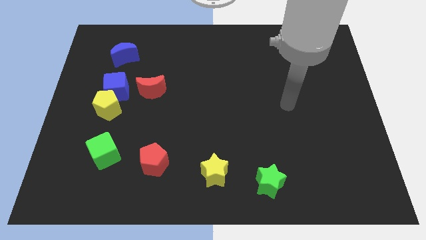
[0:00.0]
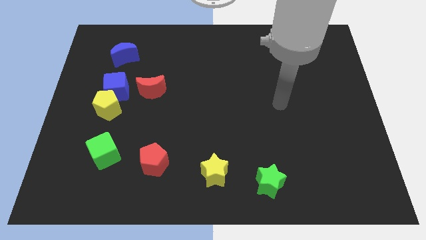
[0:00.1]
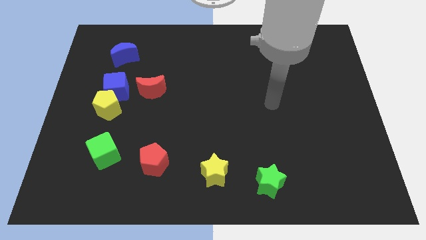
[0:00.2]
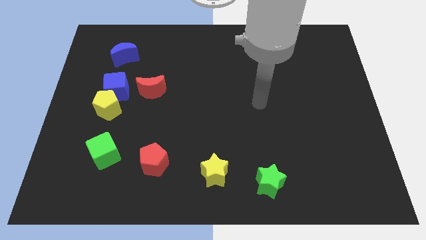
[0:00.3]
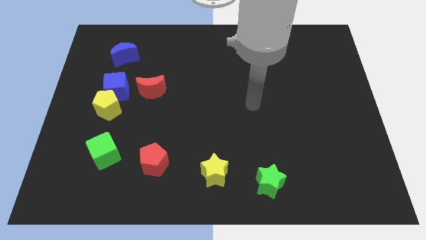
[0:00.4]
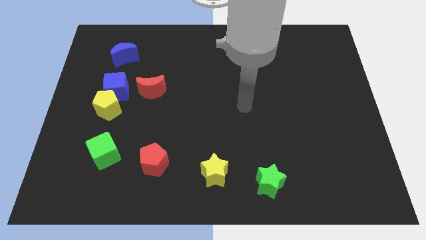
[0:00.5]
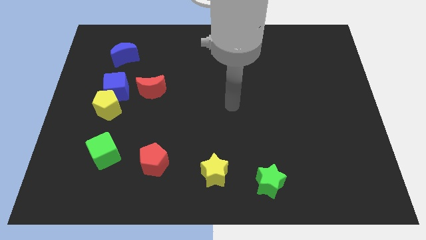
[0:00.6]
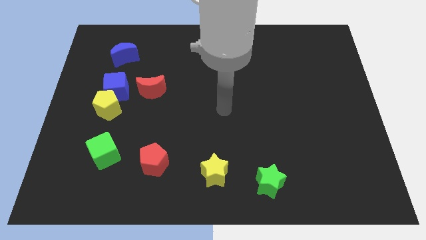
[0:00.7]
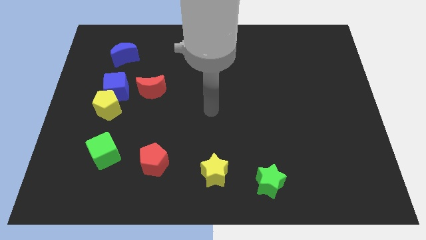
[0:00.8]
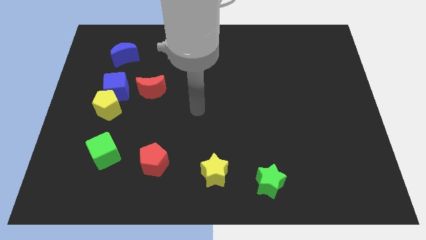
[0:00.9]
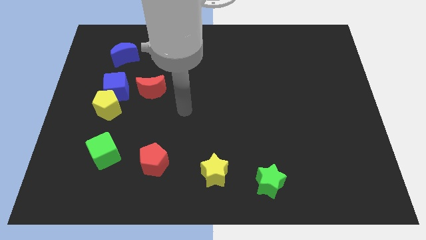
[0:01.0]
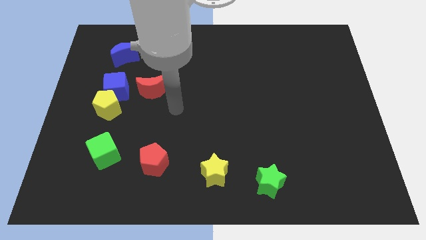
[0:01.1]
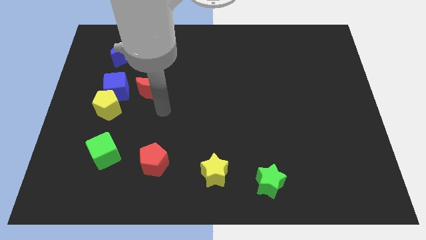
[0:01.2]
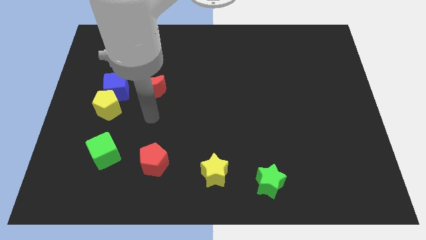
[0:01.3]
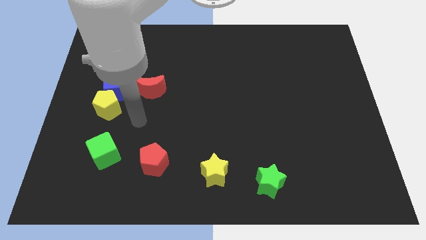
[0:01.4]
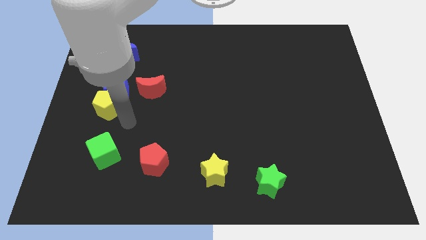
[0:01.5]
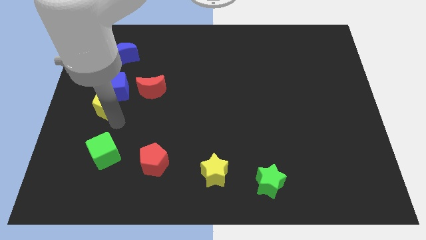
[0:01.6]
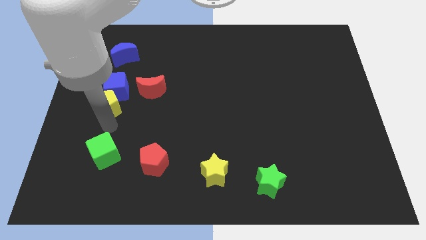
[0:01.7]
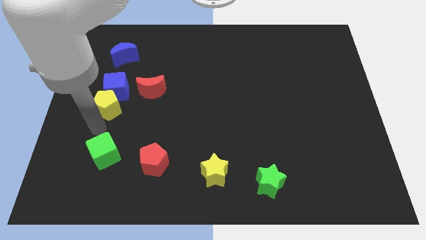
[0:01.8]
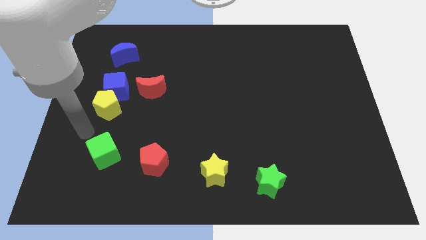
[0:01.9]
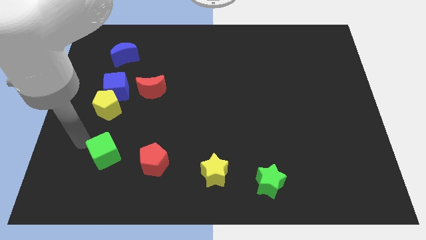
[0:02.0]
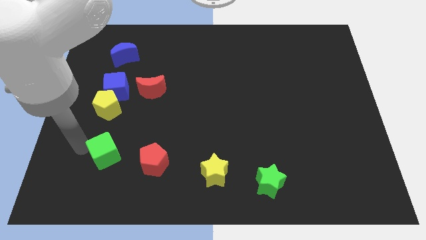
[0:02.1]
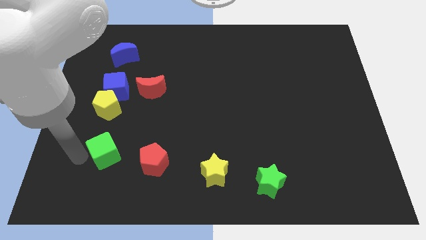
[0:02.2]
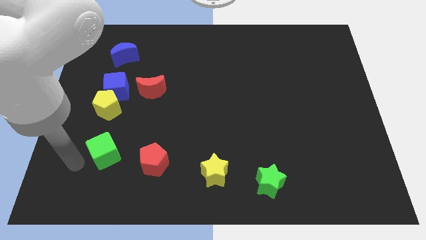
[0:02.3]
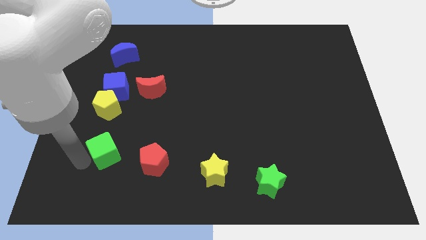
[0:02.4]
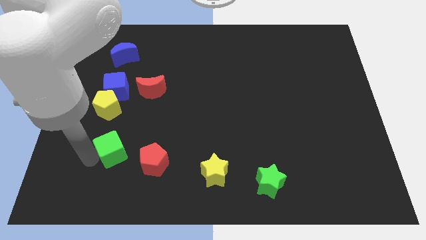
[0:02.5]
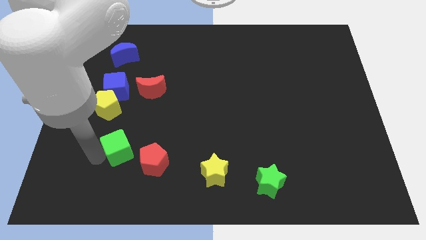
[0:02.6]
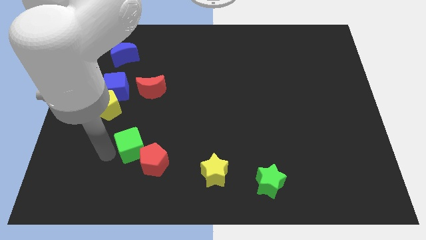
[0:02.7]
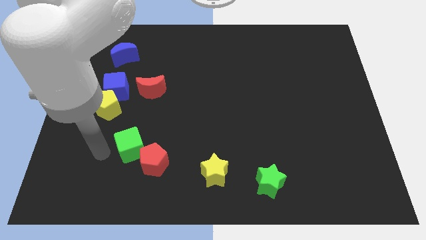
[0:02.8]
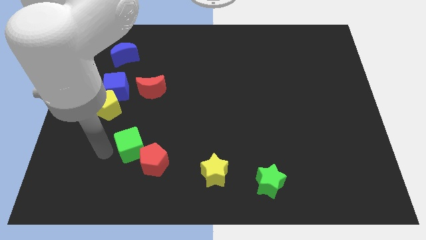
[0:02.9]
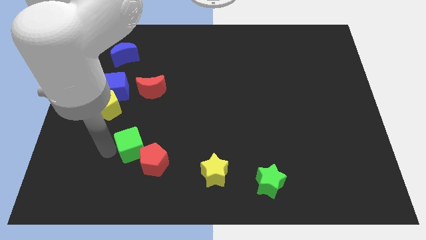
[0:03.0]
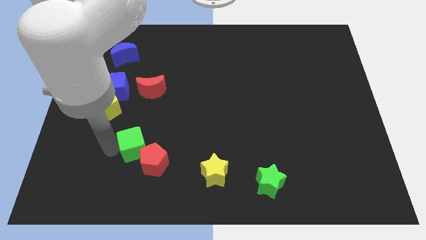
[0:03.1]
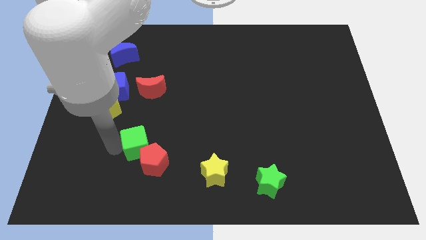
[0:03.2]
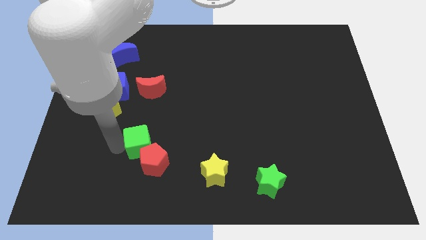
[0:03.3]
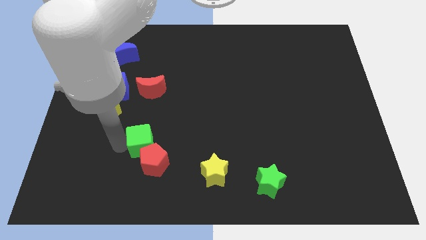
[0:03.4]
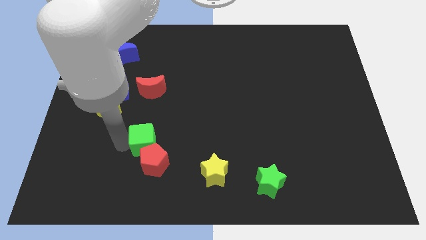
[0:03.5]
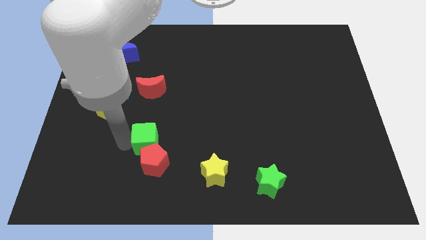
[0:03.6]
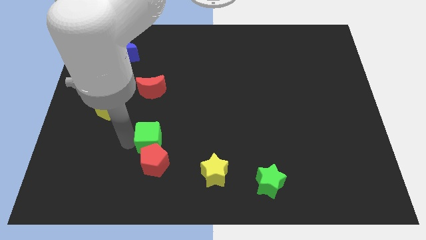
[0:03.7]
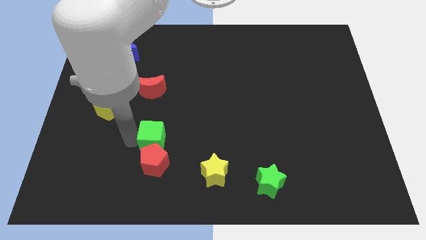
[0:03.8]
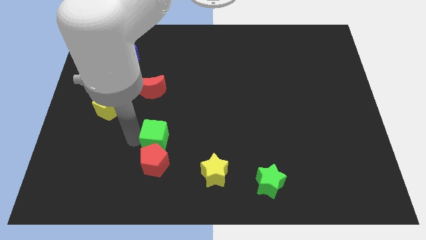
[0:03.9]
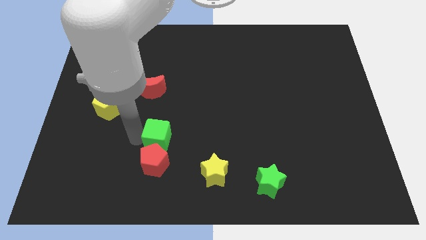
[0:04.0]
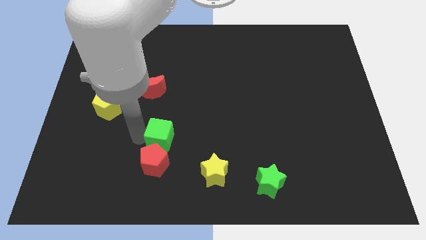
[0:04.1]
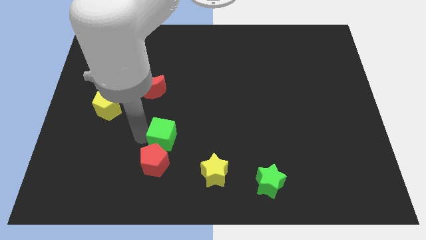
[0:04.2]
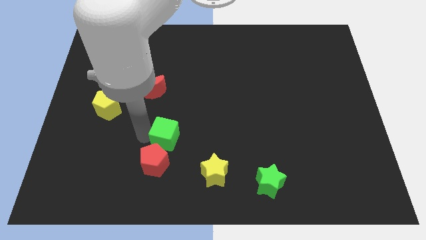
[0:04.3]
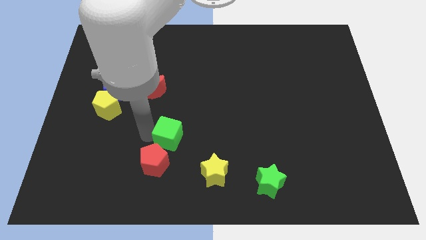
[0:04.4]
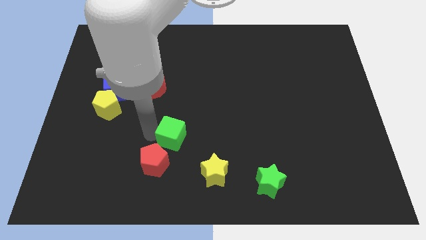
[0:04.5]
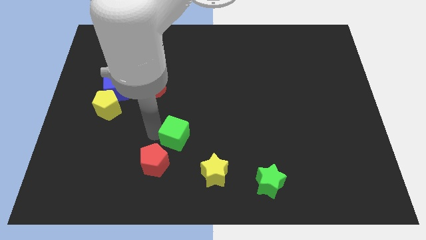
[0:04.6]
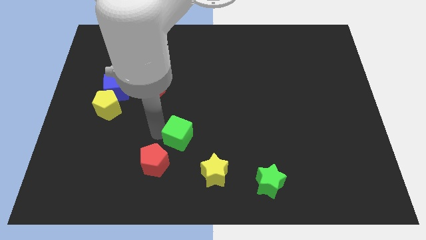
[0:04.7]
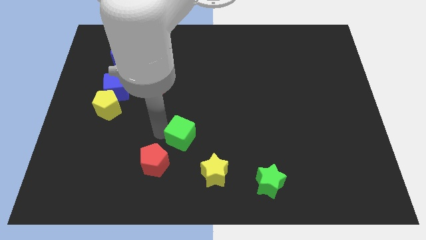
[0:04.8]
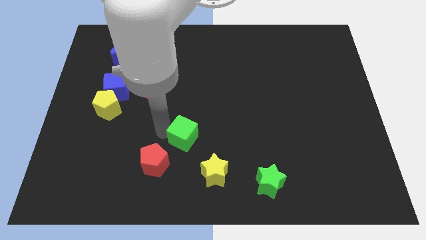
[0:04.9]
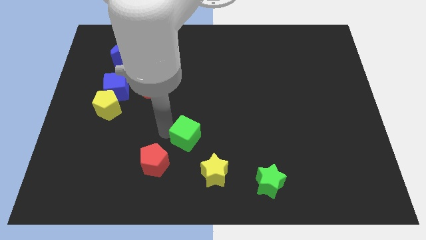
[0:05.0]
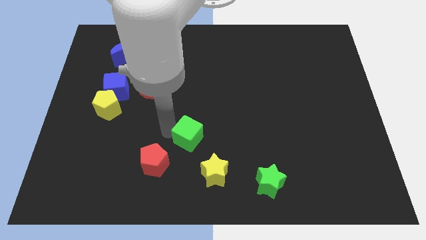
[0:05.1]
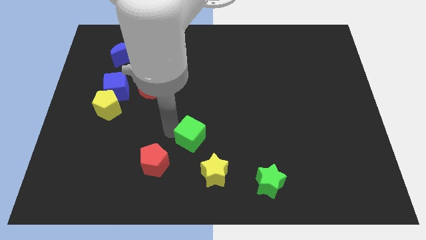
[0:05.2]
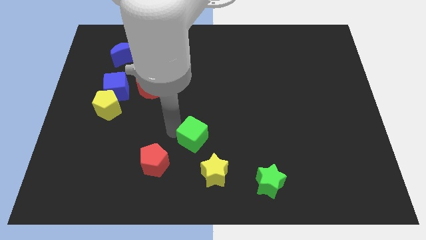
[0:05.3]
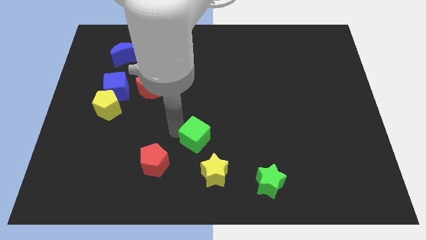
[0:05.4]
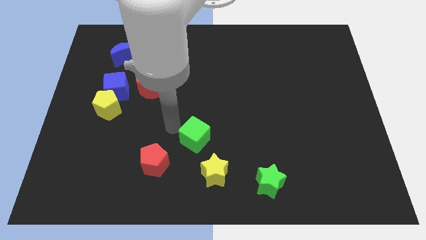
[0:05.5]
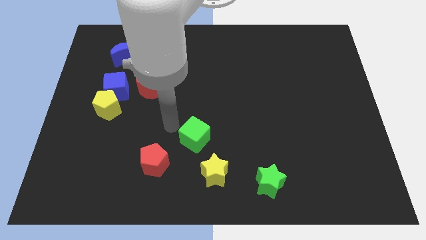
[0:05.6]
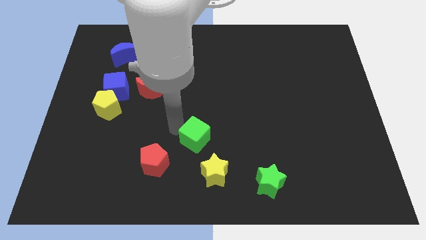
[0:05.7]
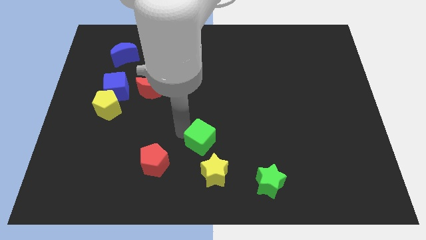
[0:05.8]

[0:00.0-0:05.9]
slide the green cube right

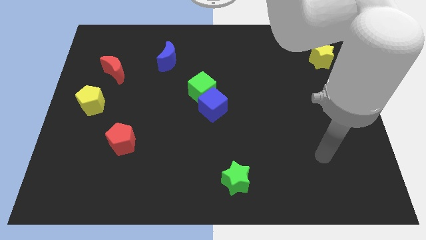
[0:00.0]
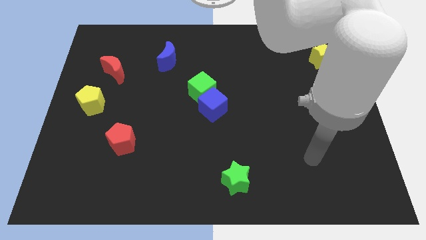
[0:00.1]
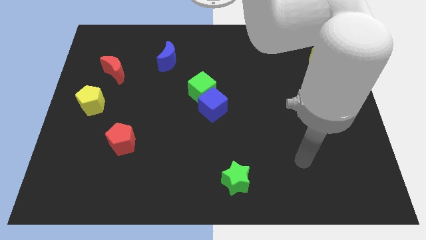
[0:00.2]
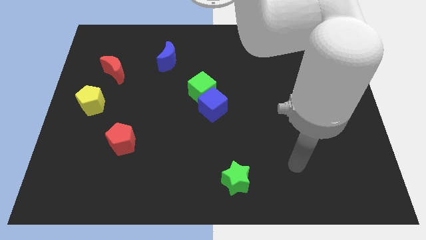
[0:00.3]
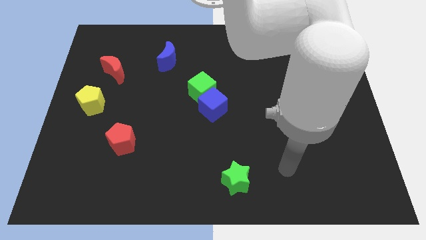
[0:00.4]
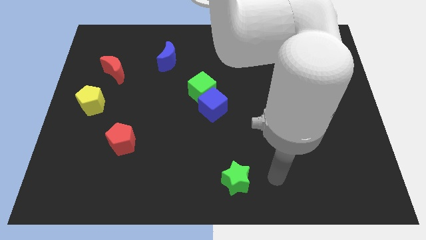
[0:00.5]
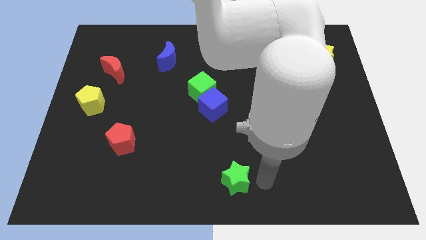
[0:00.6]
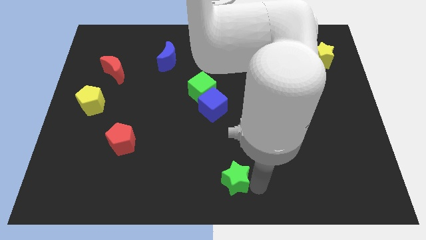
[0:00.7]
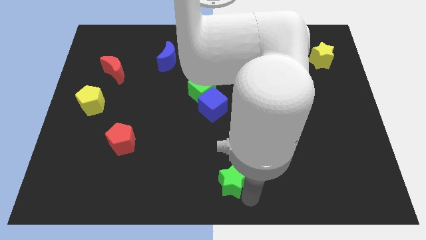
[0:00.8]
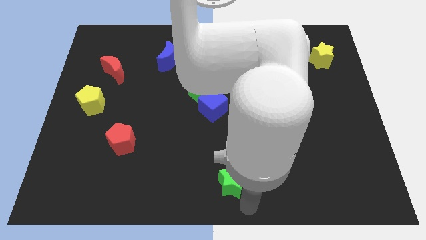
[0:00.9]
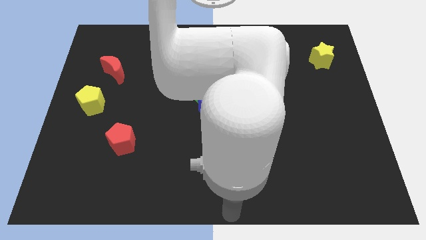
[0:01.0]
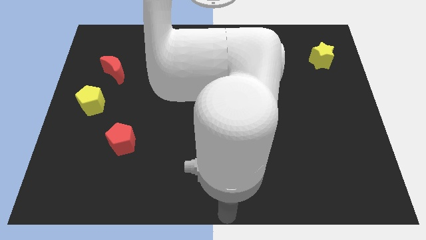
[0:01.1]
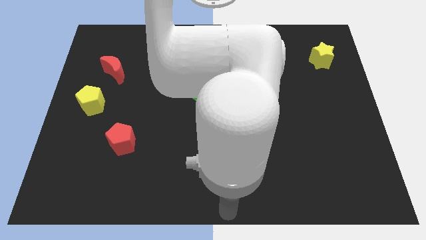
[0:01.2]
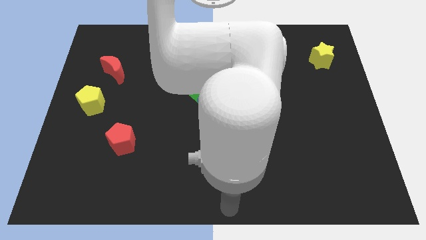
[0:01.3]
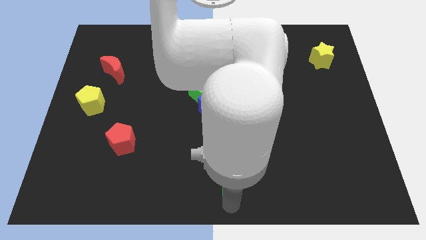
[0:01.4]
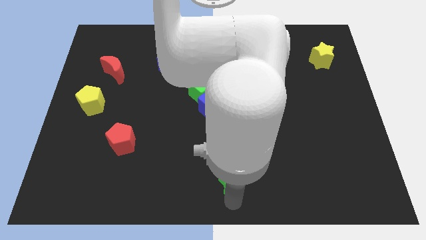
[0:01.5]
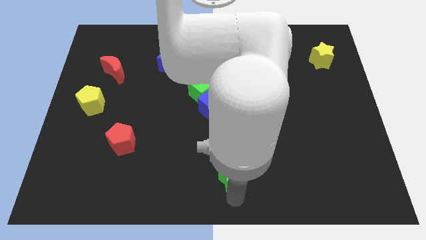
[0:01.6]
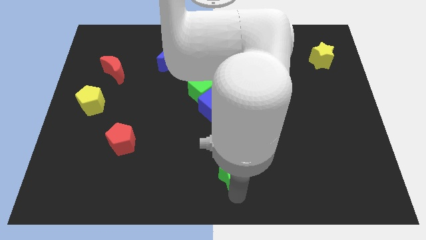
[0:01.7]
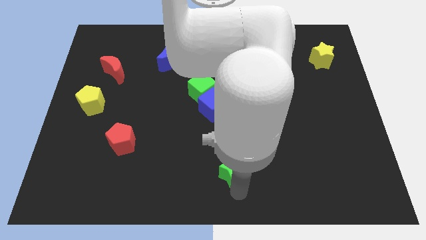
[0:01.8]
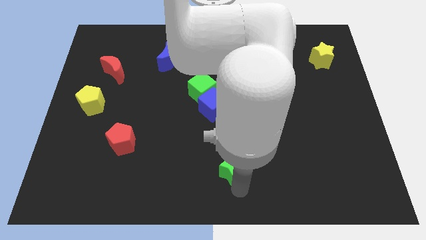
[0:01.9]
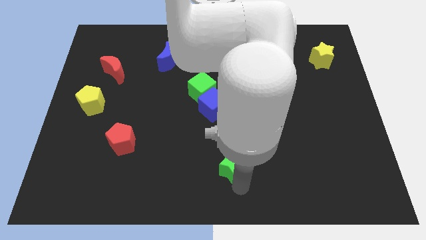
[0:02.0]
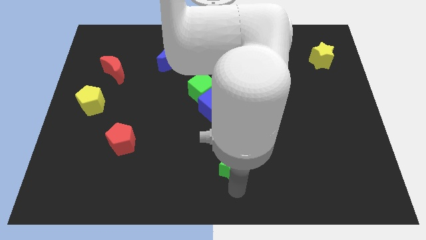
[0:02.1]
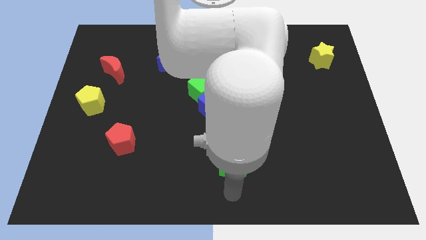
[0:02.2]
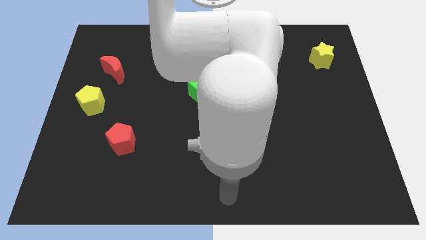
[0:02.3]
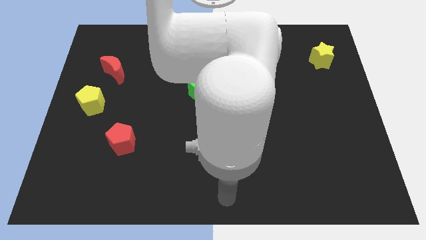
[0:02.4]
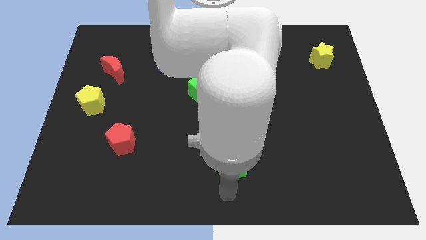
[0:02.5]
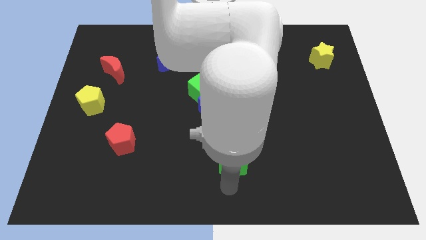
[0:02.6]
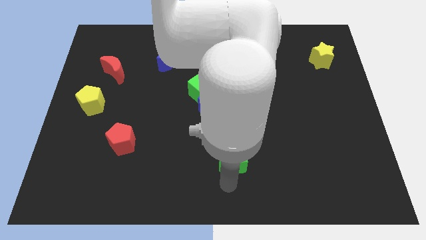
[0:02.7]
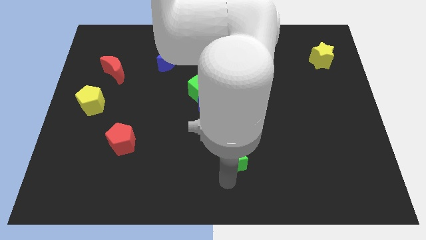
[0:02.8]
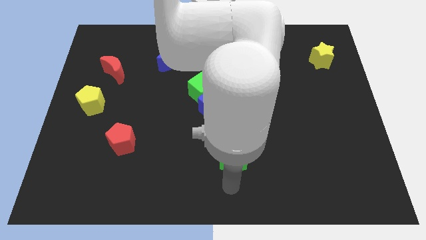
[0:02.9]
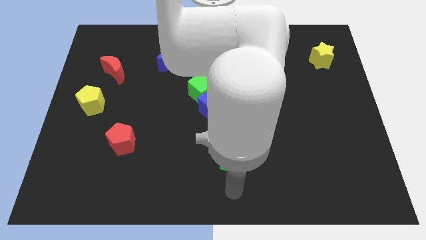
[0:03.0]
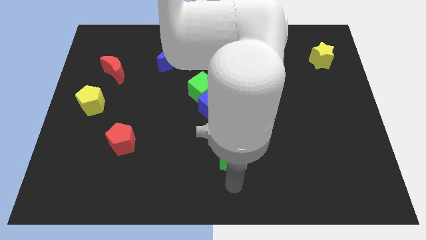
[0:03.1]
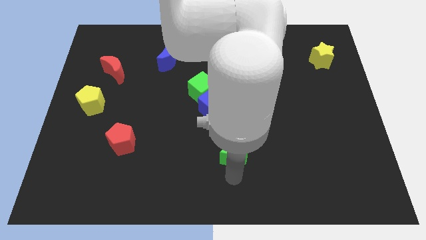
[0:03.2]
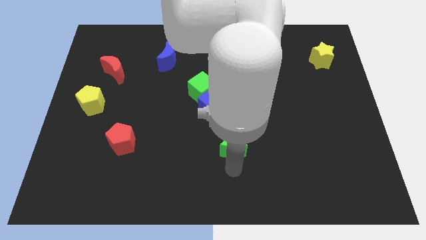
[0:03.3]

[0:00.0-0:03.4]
slightly slide the green star upwards
